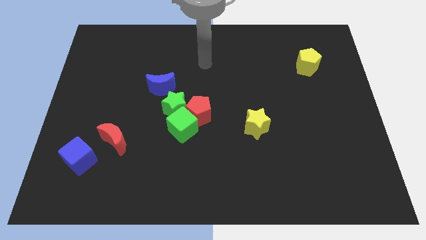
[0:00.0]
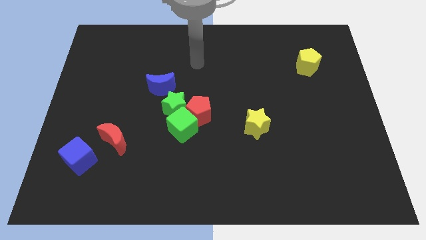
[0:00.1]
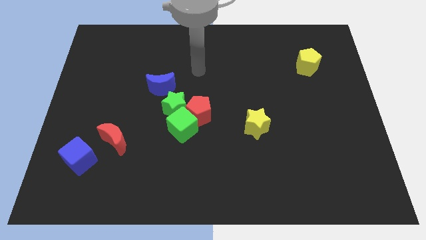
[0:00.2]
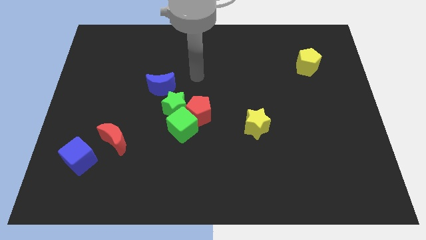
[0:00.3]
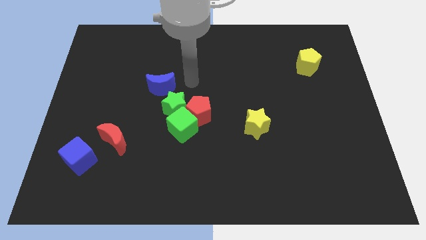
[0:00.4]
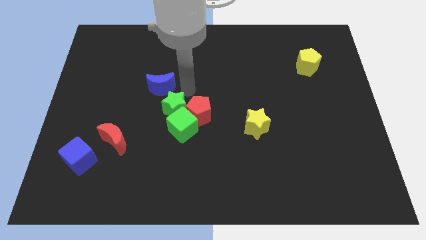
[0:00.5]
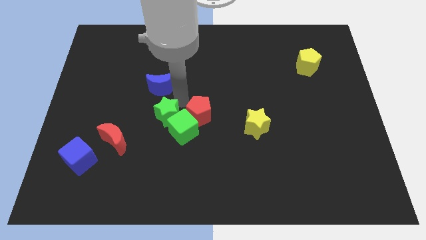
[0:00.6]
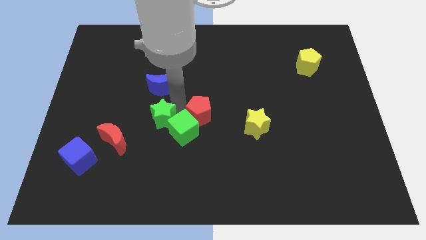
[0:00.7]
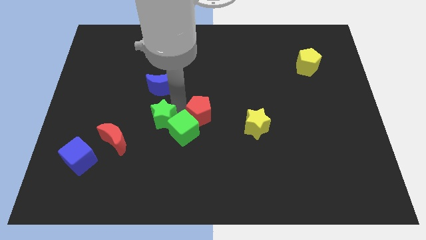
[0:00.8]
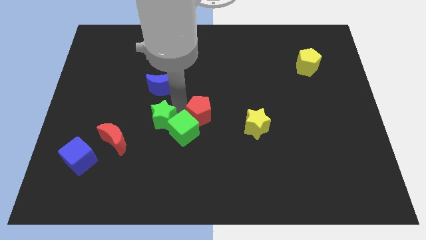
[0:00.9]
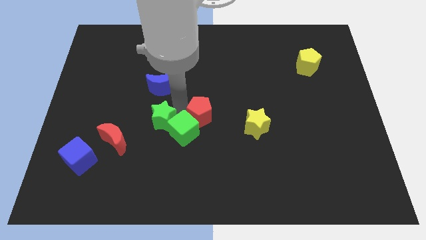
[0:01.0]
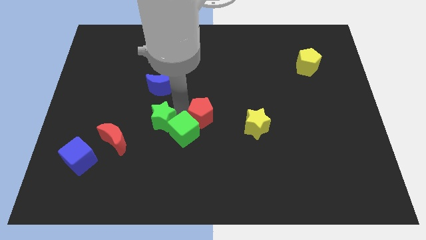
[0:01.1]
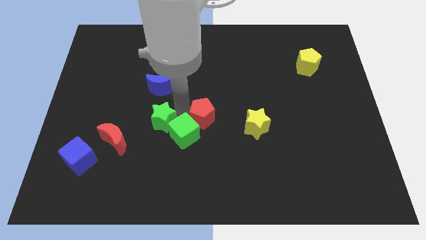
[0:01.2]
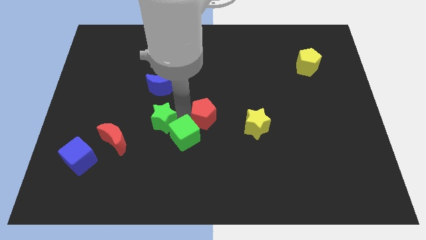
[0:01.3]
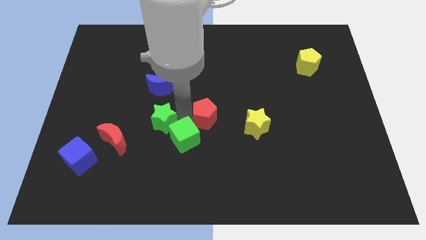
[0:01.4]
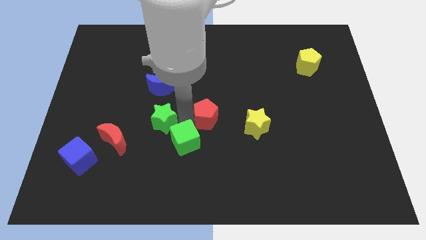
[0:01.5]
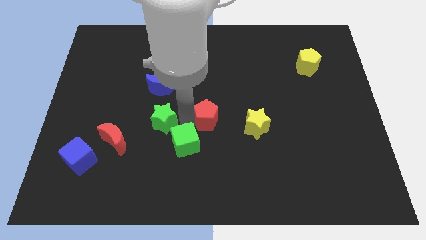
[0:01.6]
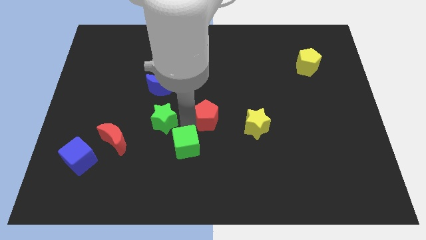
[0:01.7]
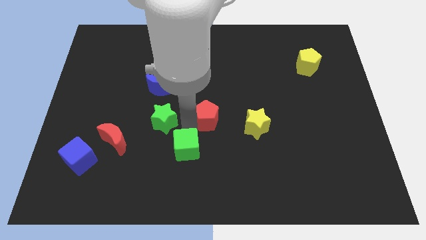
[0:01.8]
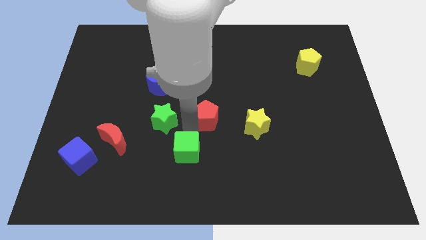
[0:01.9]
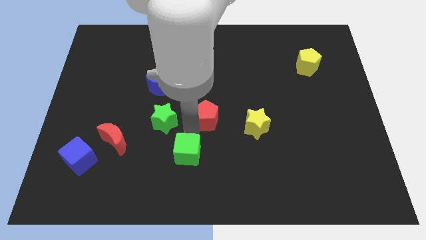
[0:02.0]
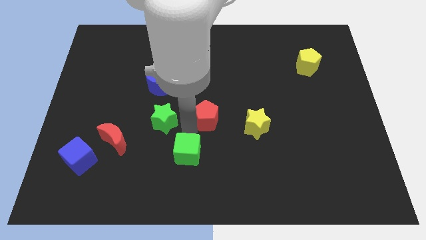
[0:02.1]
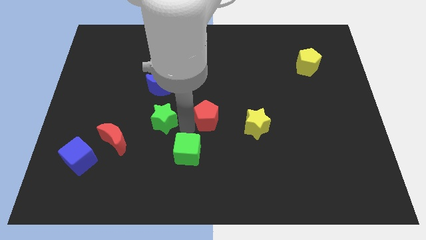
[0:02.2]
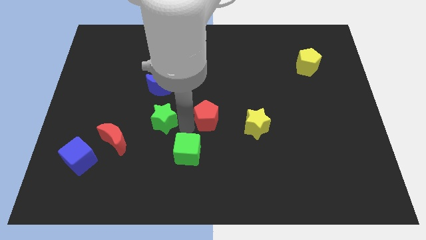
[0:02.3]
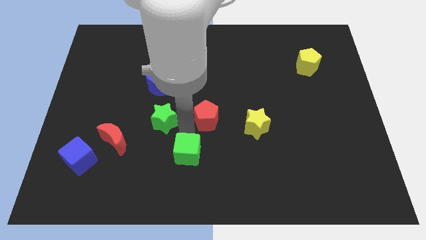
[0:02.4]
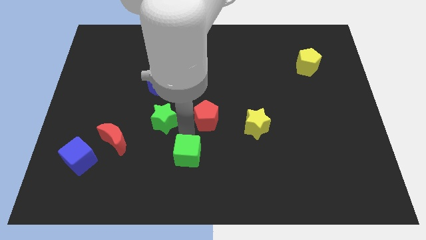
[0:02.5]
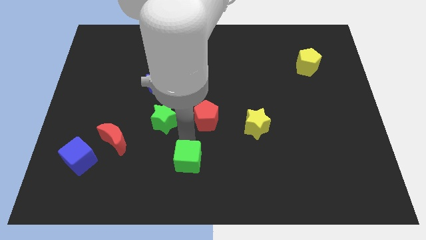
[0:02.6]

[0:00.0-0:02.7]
pull the green cube apart from the red pentagon and green star

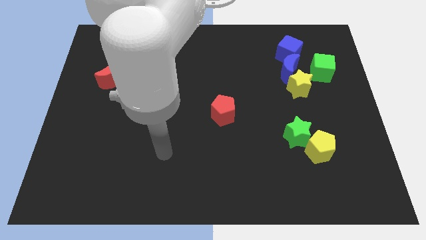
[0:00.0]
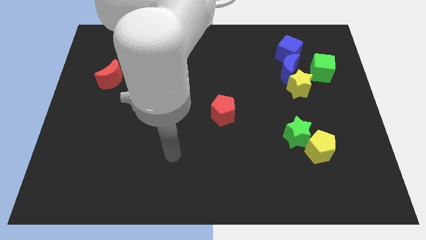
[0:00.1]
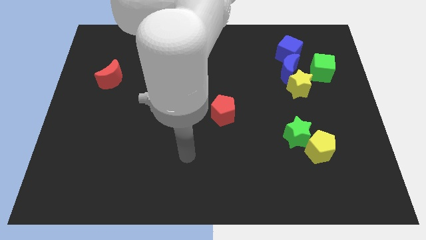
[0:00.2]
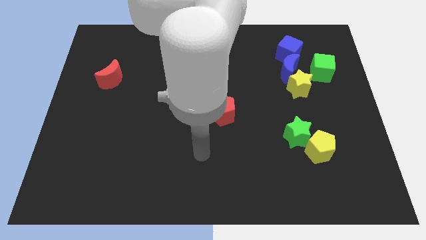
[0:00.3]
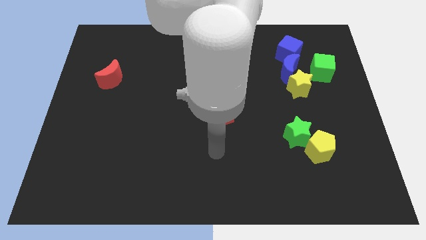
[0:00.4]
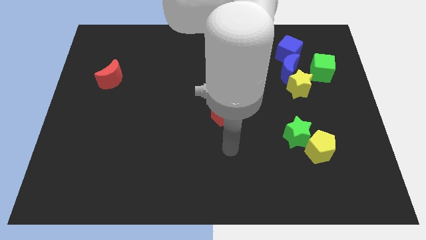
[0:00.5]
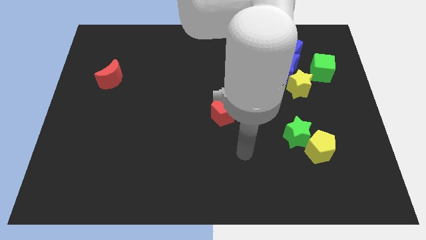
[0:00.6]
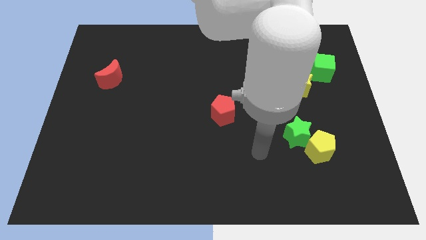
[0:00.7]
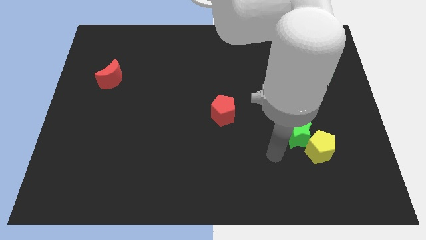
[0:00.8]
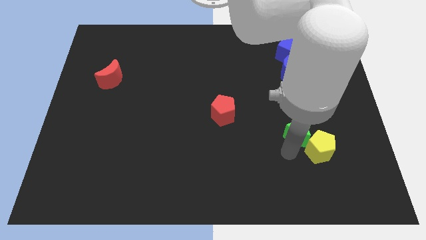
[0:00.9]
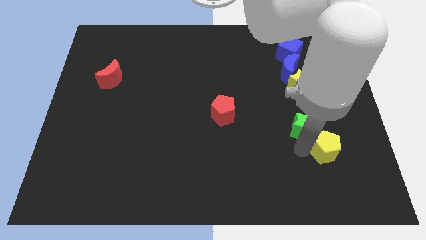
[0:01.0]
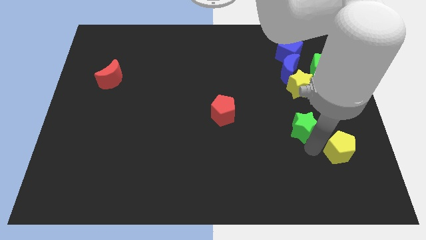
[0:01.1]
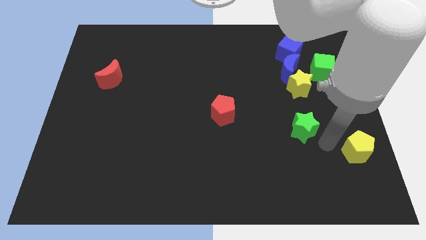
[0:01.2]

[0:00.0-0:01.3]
move the green star away from the yellow pentagon

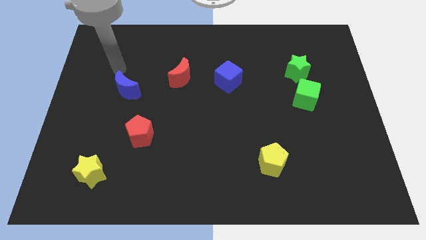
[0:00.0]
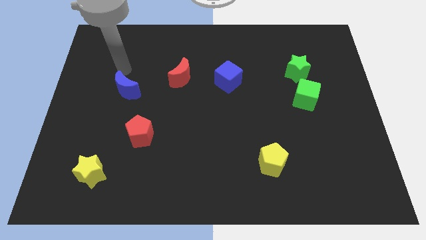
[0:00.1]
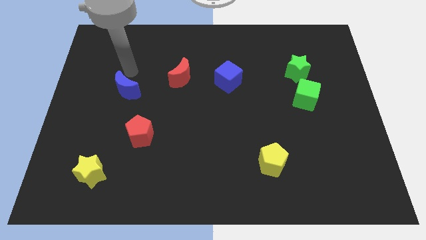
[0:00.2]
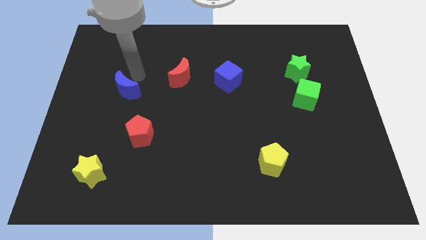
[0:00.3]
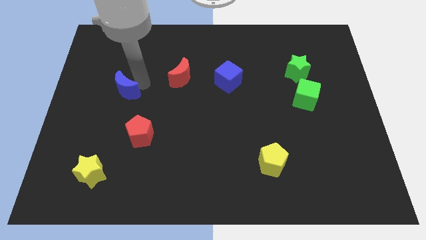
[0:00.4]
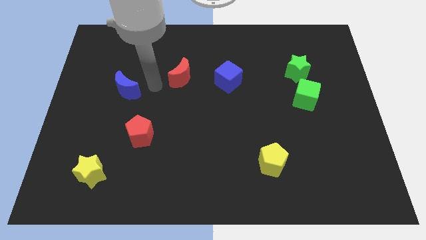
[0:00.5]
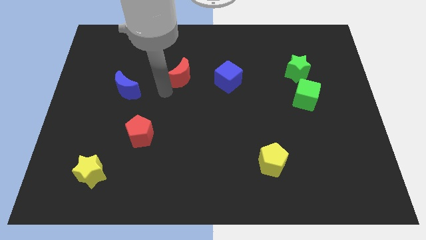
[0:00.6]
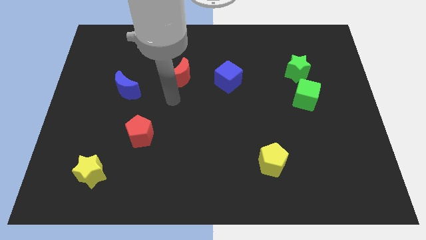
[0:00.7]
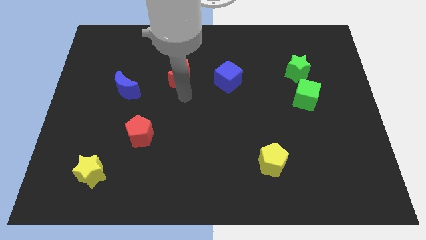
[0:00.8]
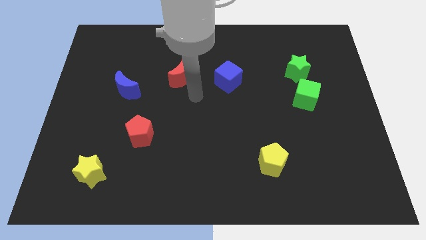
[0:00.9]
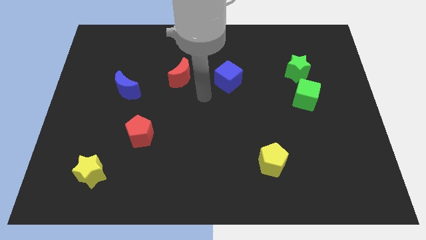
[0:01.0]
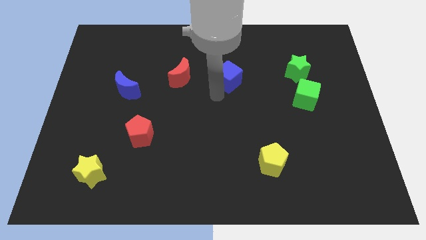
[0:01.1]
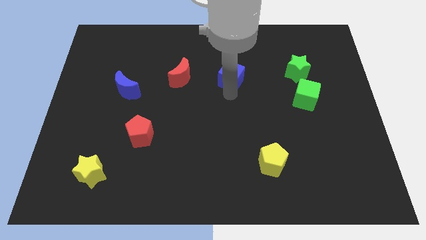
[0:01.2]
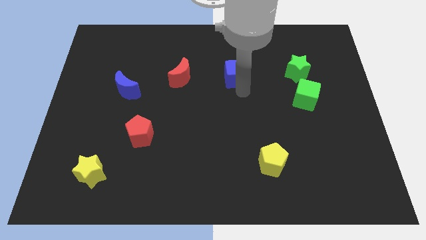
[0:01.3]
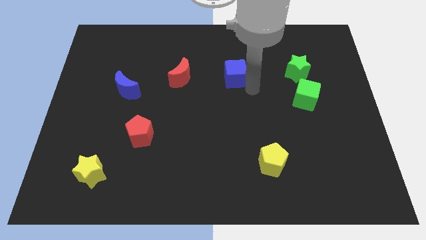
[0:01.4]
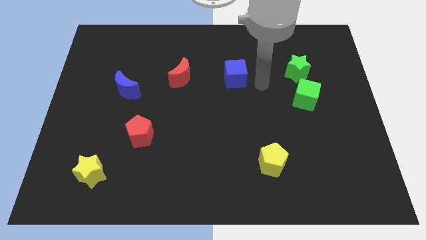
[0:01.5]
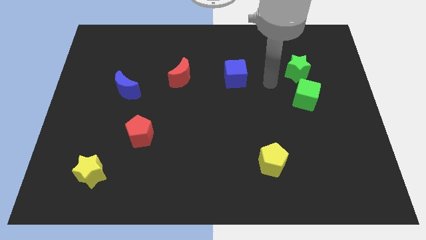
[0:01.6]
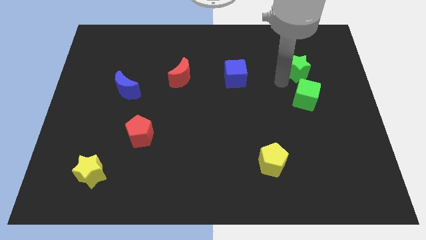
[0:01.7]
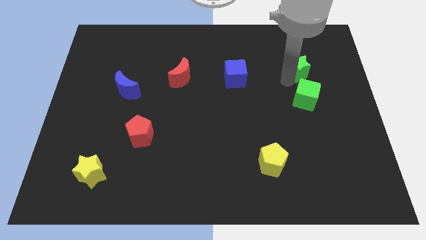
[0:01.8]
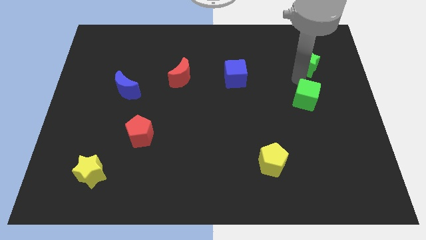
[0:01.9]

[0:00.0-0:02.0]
separate the green cube from the green star

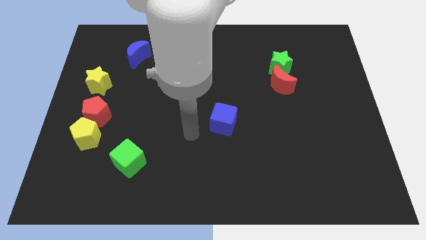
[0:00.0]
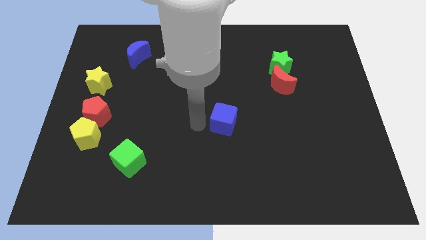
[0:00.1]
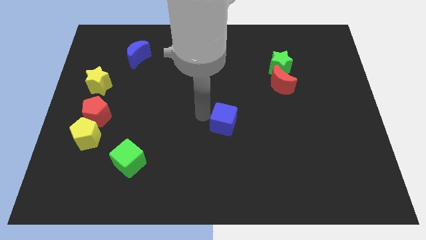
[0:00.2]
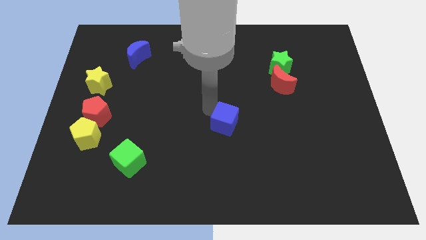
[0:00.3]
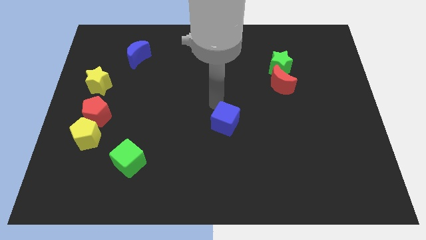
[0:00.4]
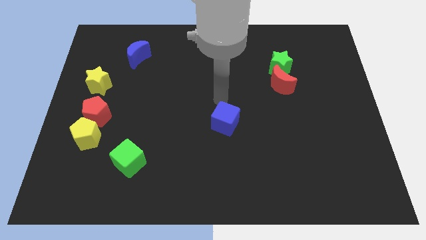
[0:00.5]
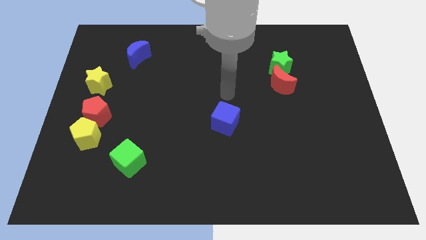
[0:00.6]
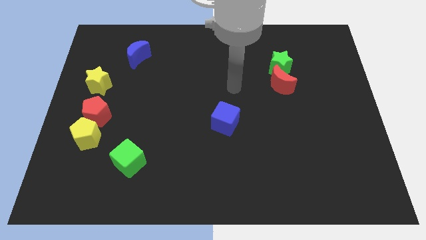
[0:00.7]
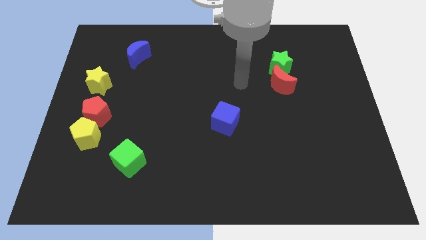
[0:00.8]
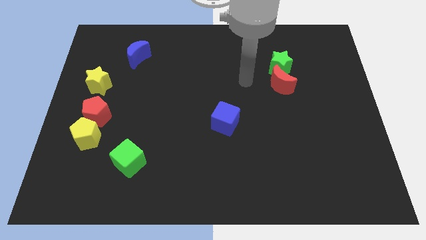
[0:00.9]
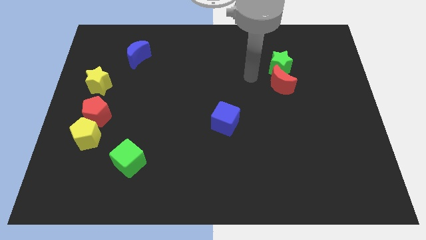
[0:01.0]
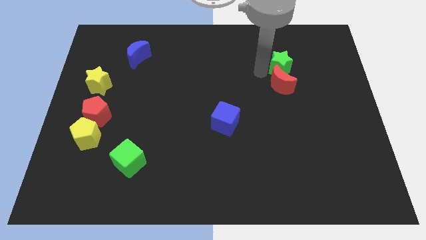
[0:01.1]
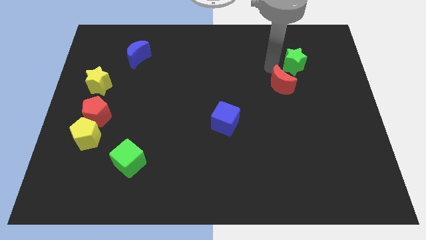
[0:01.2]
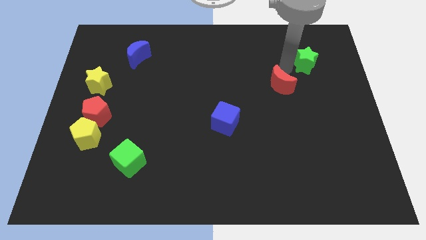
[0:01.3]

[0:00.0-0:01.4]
pull the red moon apart from the green star

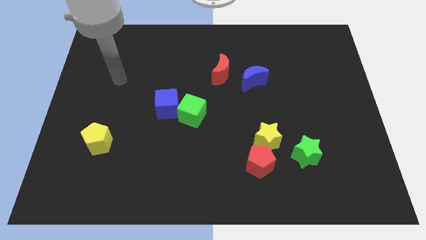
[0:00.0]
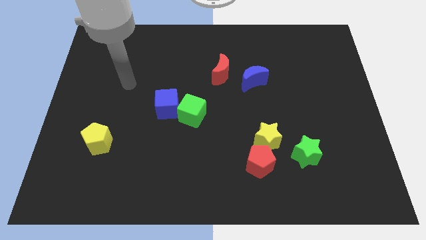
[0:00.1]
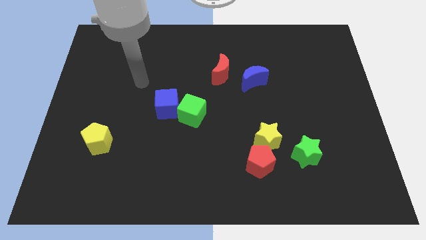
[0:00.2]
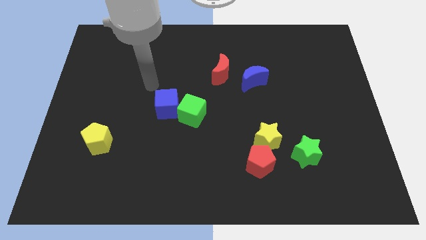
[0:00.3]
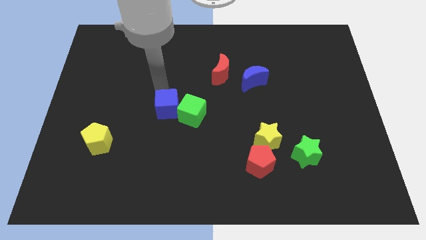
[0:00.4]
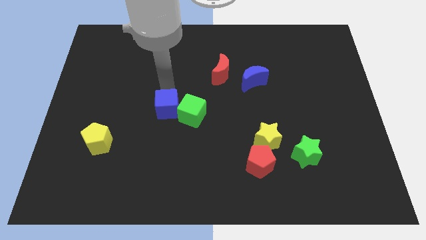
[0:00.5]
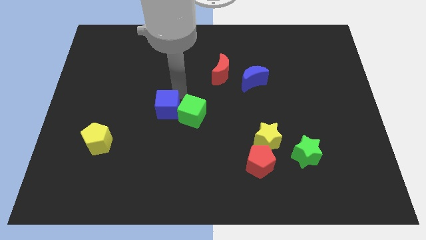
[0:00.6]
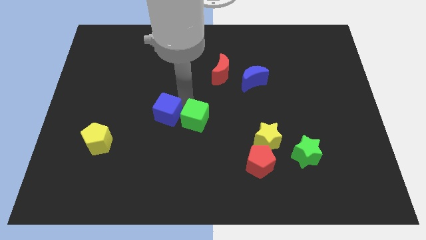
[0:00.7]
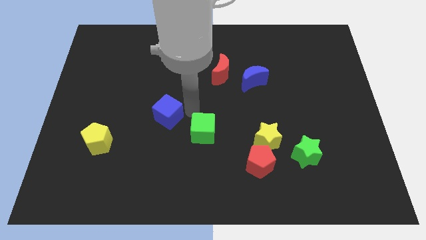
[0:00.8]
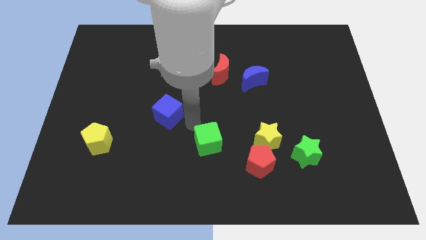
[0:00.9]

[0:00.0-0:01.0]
move the blue cube away from the green cube

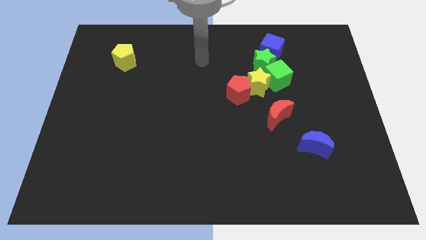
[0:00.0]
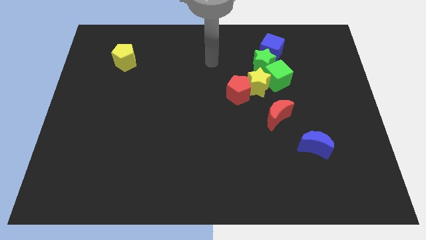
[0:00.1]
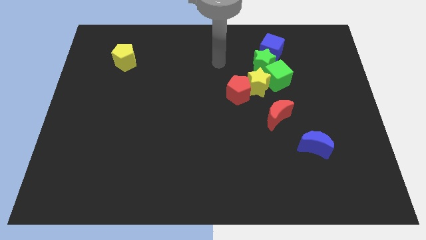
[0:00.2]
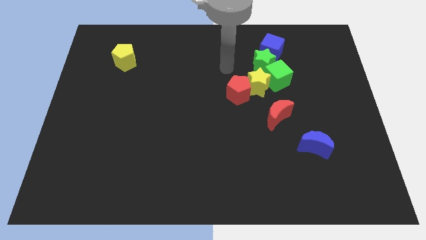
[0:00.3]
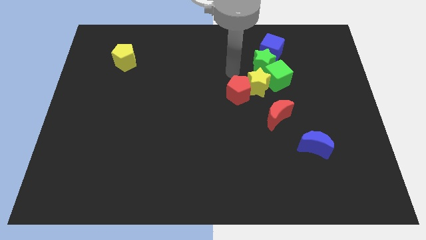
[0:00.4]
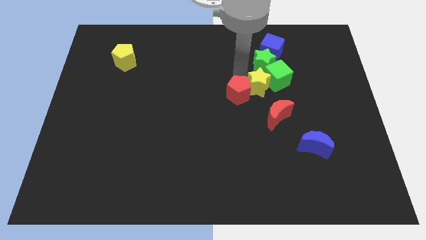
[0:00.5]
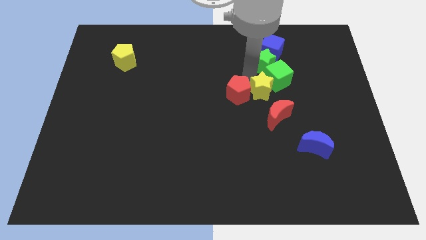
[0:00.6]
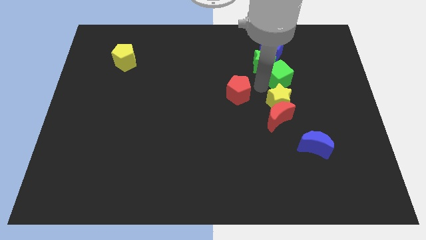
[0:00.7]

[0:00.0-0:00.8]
move the red pentagon away from the yellow star

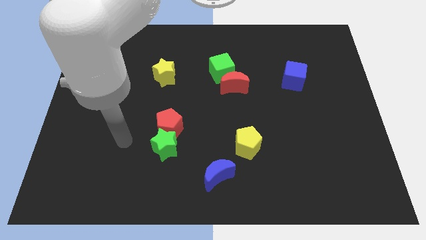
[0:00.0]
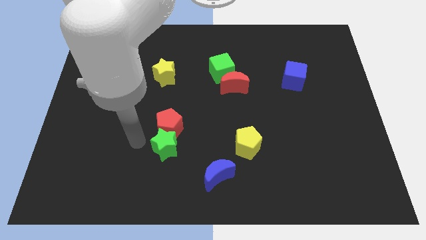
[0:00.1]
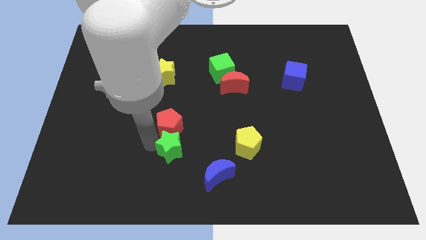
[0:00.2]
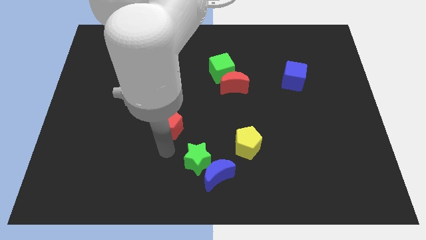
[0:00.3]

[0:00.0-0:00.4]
pull the red pentagon apart from the green star
